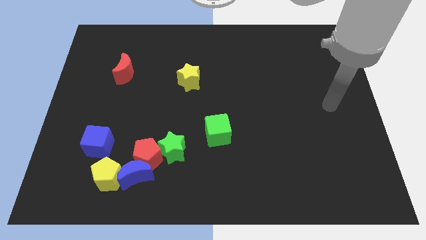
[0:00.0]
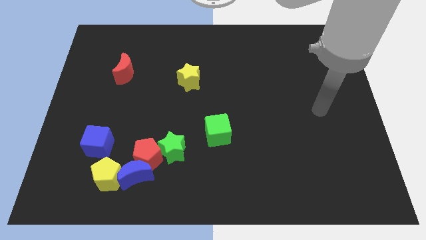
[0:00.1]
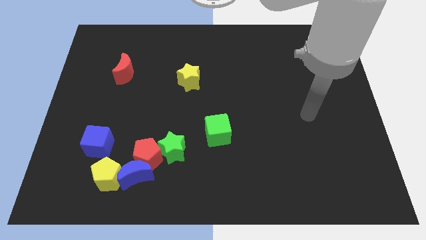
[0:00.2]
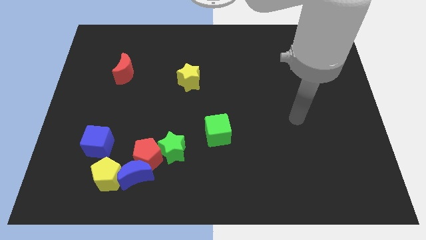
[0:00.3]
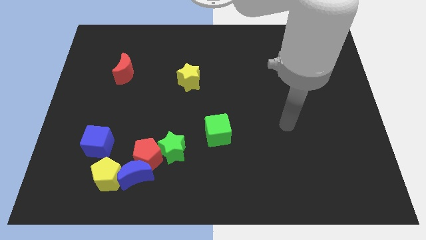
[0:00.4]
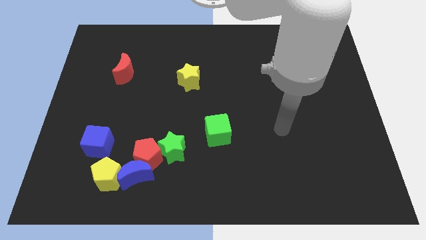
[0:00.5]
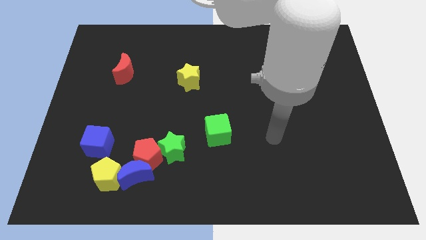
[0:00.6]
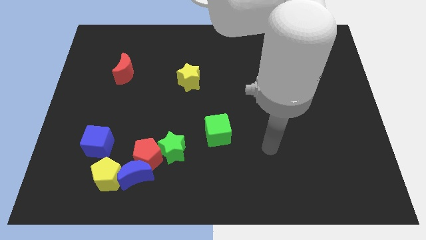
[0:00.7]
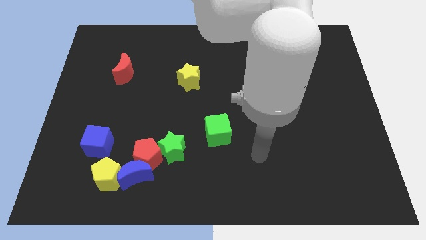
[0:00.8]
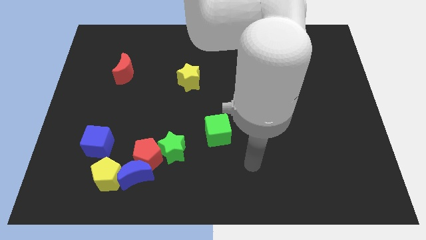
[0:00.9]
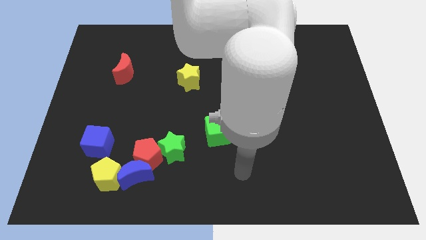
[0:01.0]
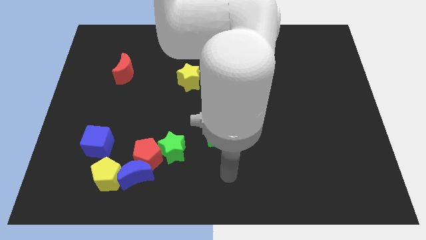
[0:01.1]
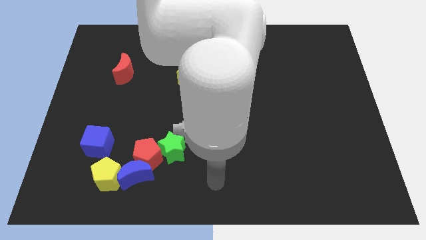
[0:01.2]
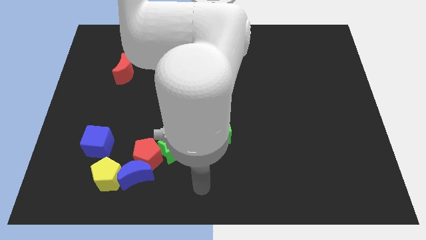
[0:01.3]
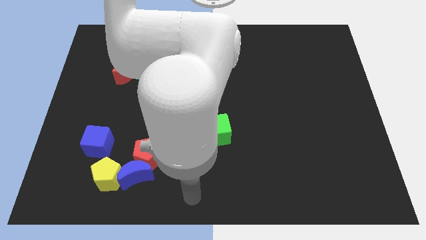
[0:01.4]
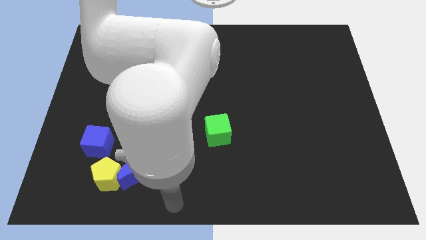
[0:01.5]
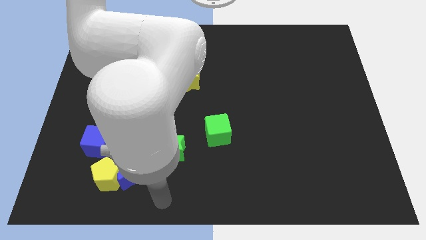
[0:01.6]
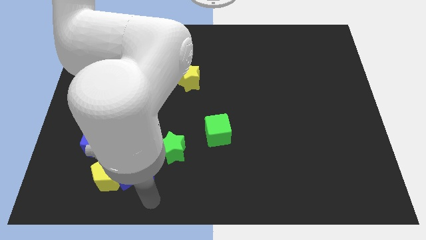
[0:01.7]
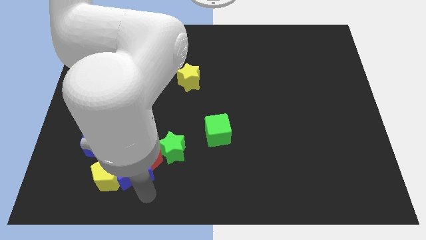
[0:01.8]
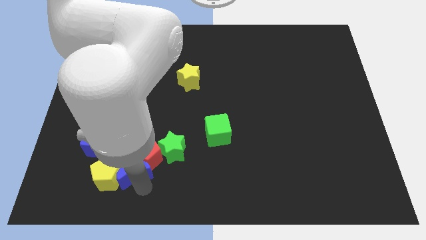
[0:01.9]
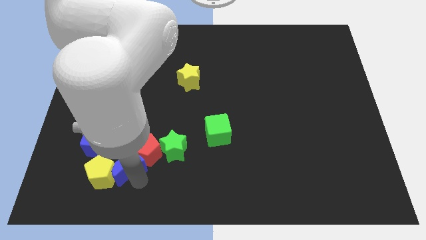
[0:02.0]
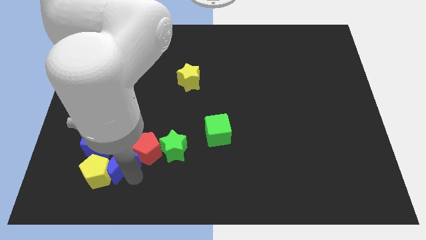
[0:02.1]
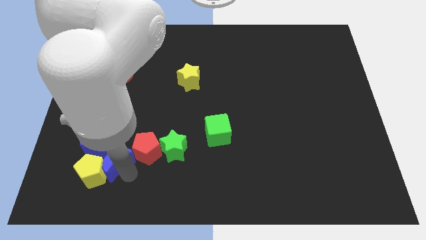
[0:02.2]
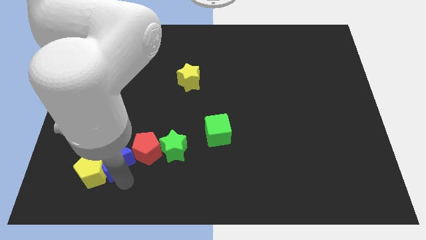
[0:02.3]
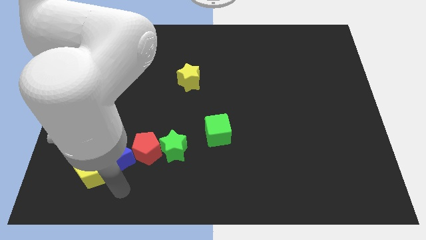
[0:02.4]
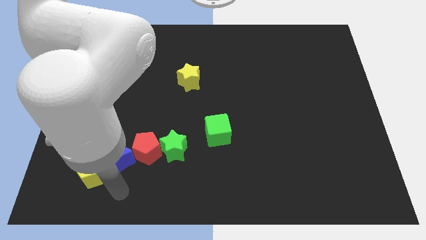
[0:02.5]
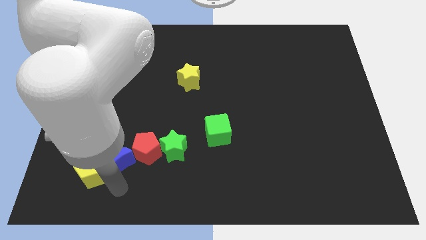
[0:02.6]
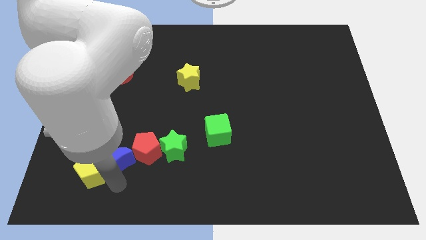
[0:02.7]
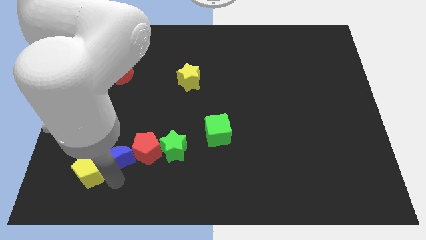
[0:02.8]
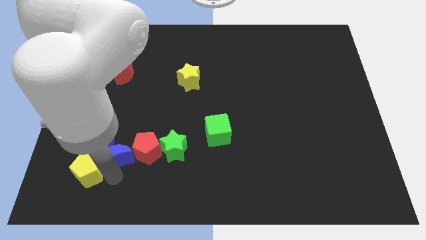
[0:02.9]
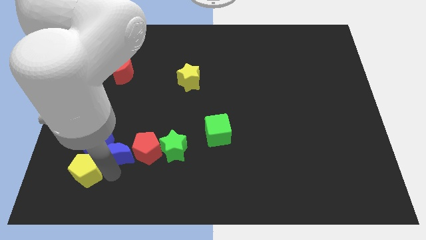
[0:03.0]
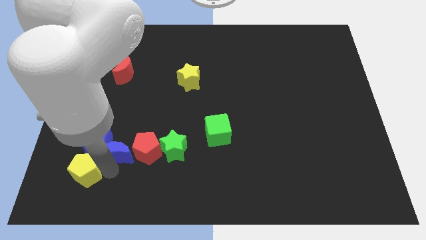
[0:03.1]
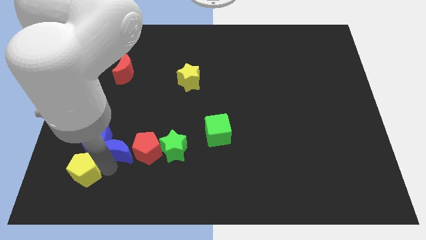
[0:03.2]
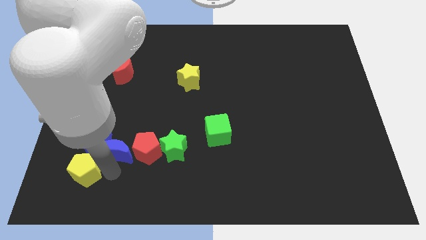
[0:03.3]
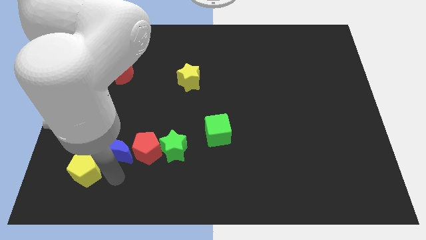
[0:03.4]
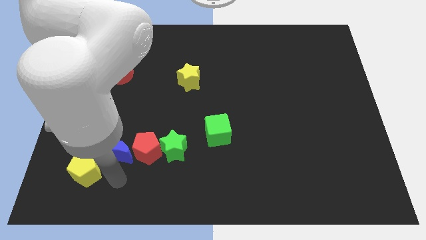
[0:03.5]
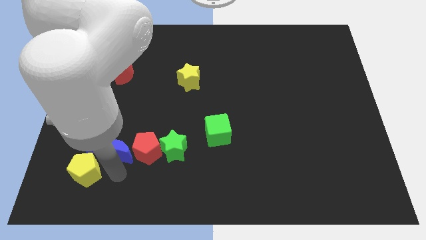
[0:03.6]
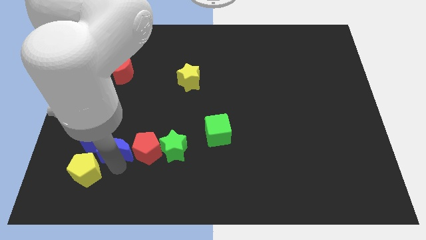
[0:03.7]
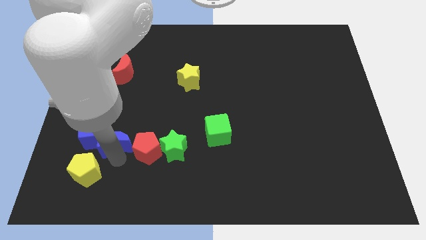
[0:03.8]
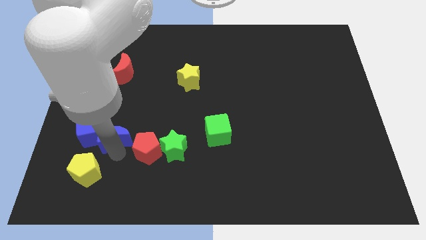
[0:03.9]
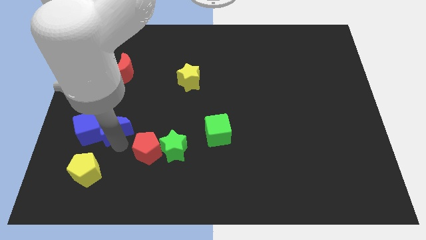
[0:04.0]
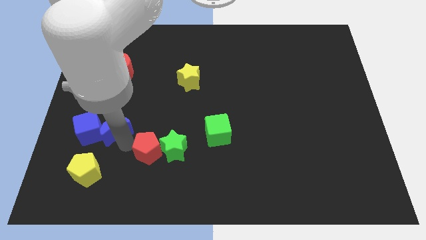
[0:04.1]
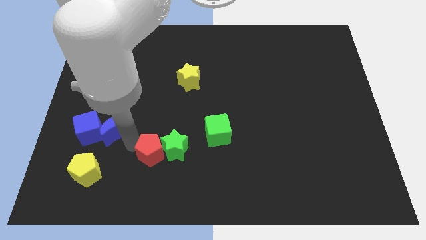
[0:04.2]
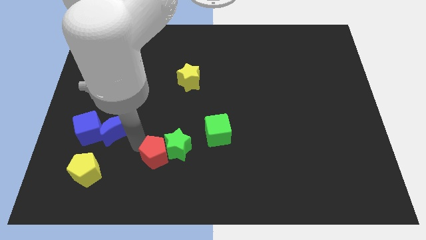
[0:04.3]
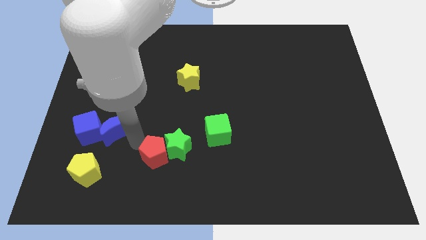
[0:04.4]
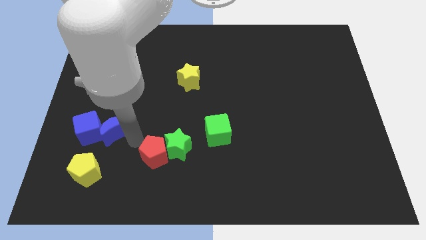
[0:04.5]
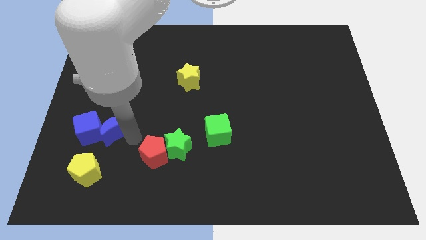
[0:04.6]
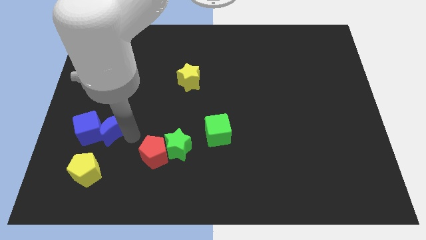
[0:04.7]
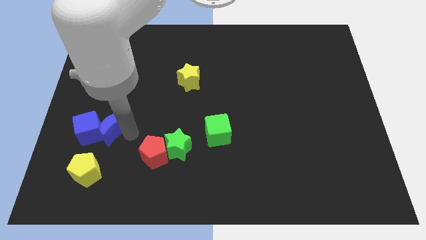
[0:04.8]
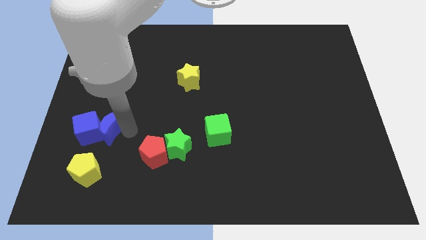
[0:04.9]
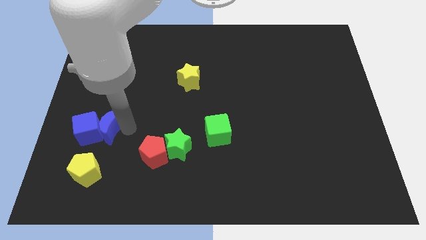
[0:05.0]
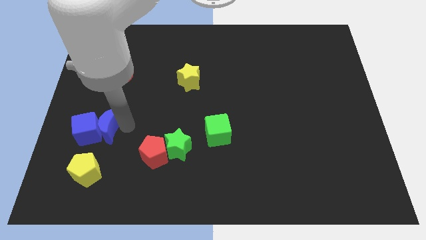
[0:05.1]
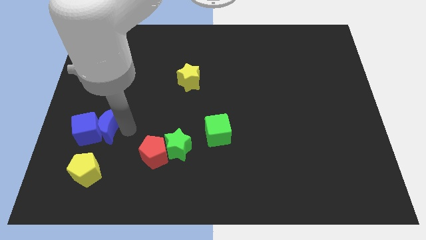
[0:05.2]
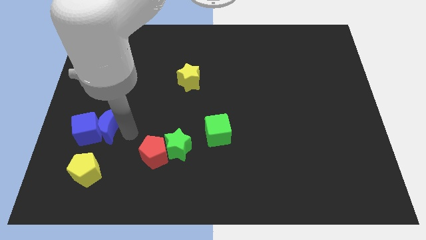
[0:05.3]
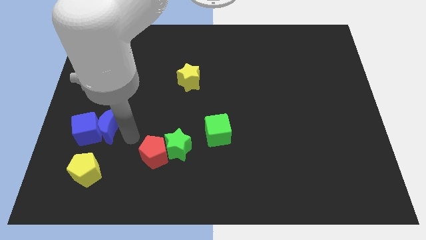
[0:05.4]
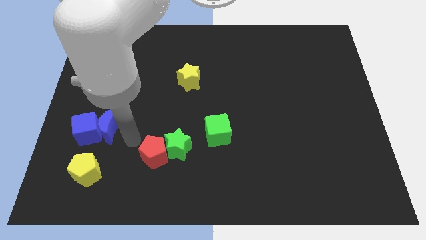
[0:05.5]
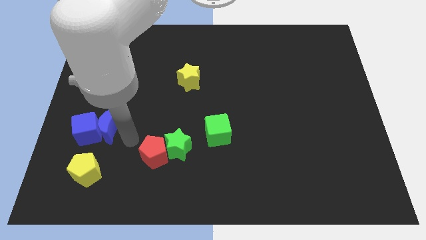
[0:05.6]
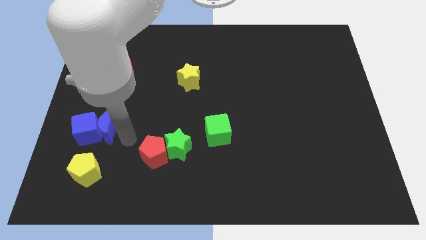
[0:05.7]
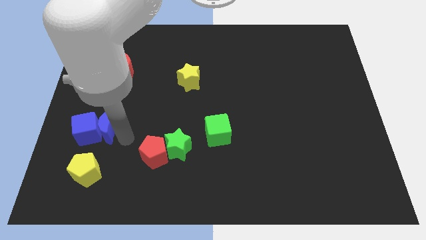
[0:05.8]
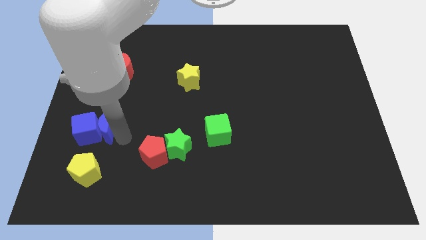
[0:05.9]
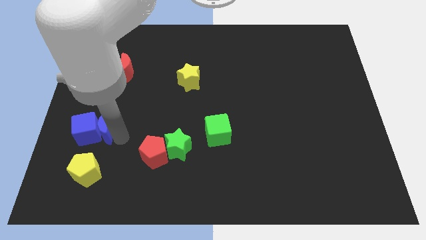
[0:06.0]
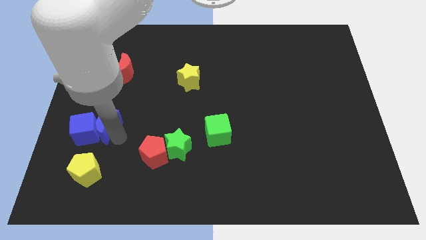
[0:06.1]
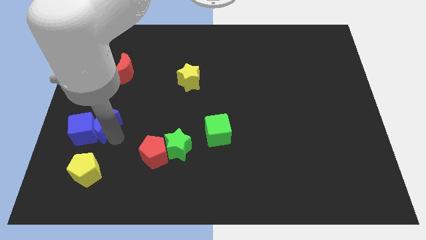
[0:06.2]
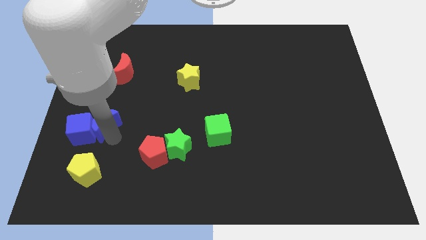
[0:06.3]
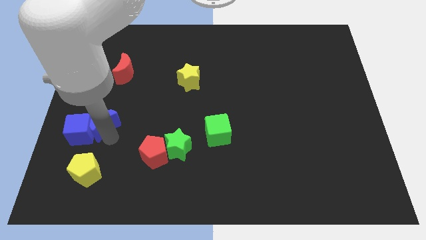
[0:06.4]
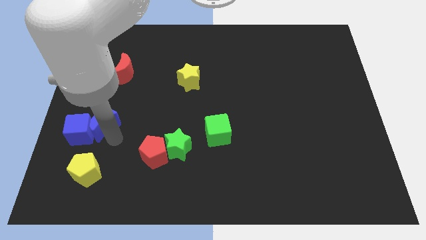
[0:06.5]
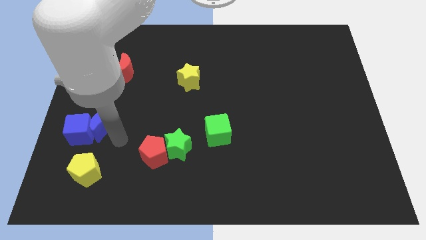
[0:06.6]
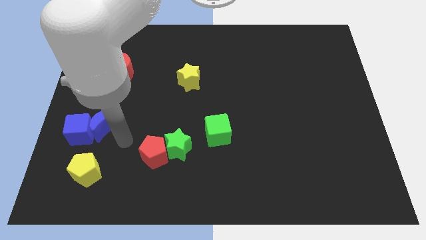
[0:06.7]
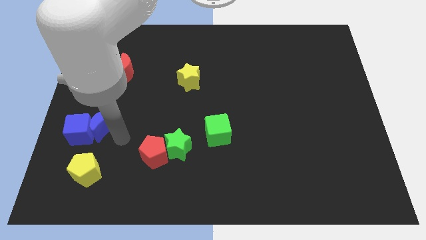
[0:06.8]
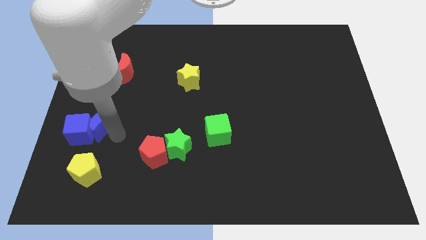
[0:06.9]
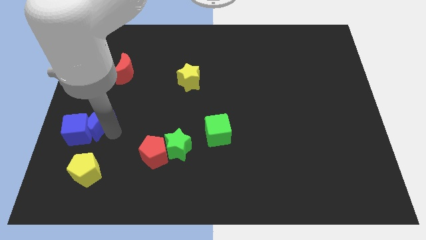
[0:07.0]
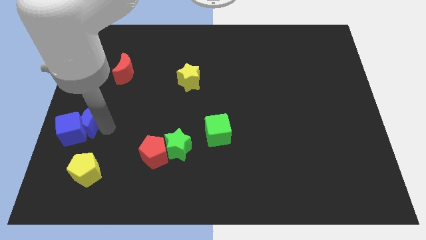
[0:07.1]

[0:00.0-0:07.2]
push the blue moon to the center left
